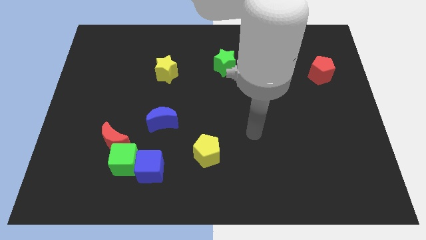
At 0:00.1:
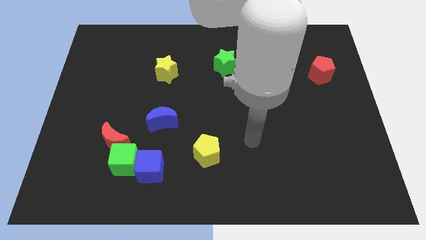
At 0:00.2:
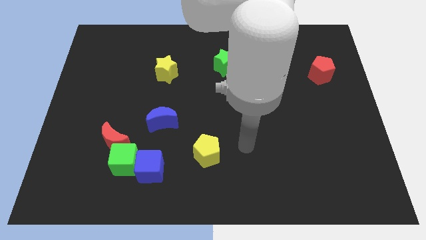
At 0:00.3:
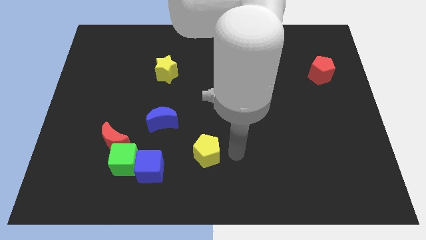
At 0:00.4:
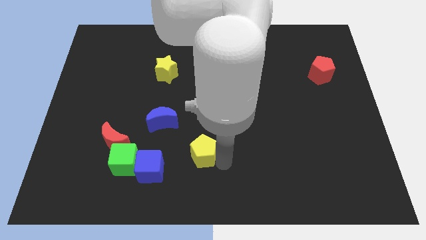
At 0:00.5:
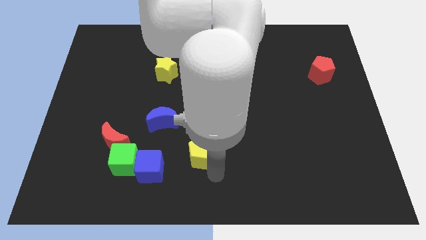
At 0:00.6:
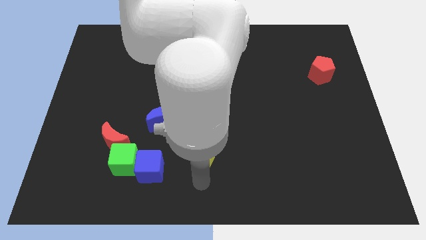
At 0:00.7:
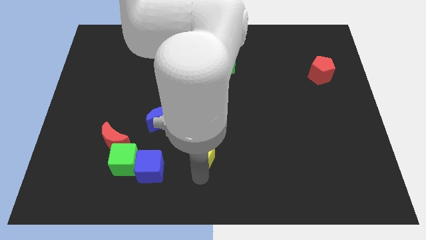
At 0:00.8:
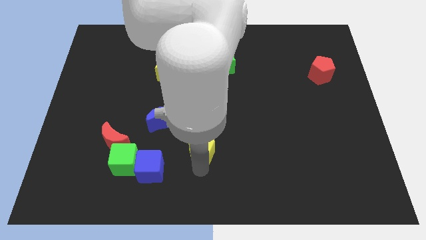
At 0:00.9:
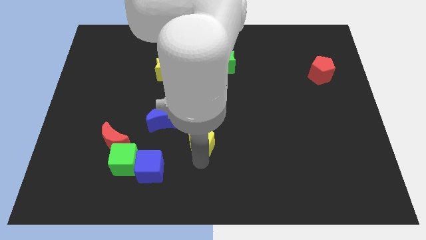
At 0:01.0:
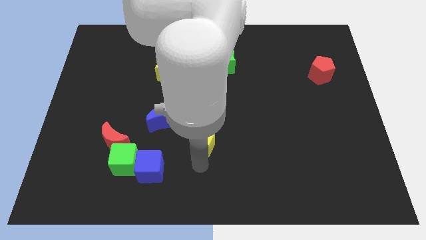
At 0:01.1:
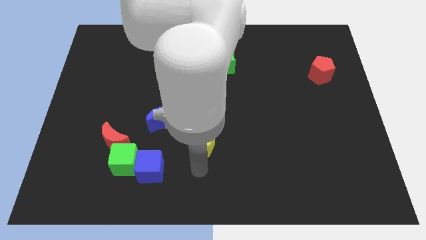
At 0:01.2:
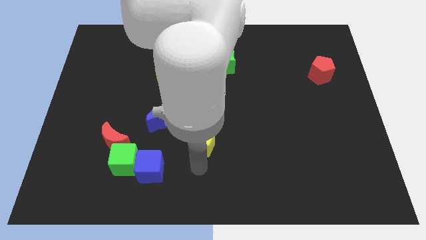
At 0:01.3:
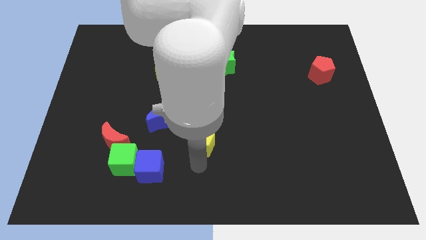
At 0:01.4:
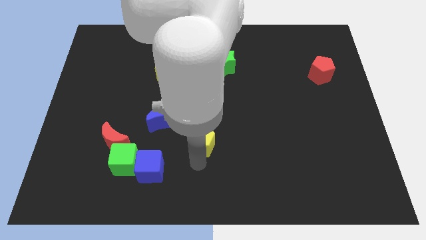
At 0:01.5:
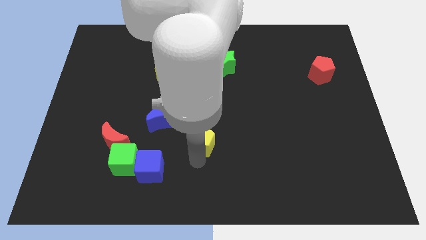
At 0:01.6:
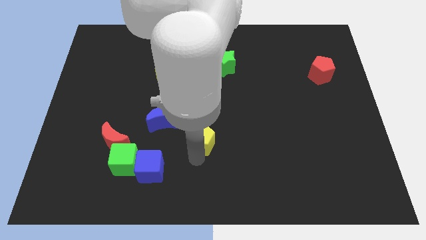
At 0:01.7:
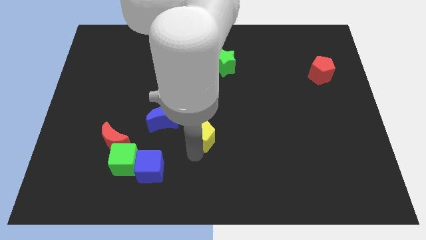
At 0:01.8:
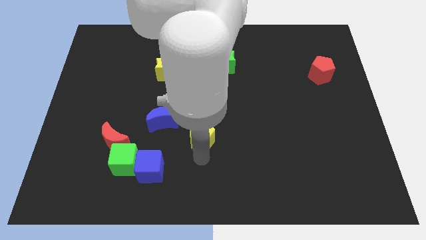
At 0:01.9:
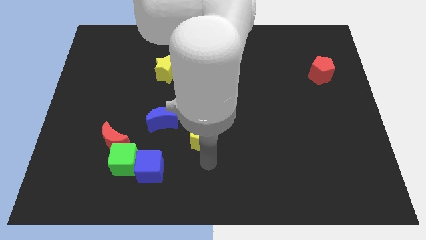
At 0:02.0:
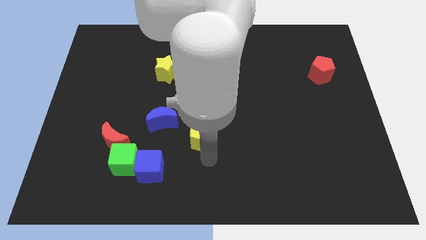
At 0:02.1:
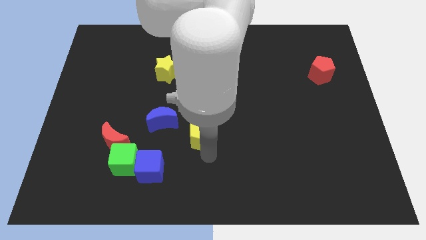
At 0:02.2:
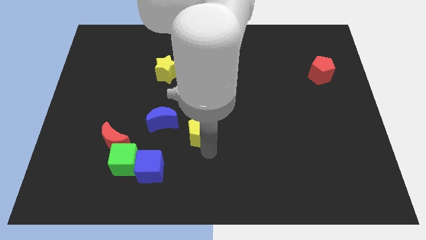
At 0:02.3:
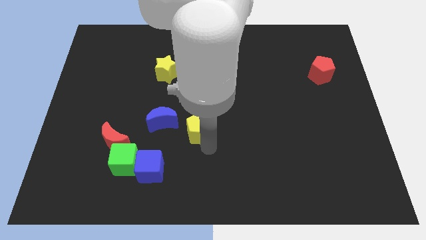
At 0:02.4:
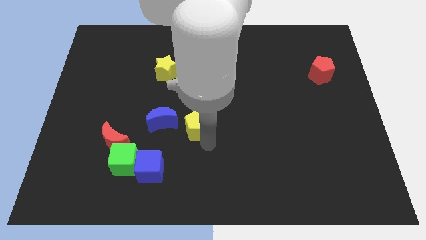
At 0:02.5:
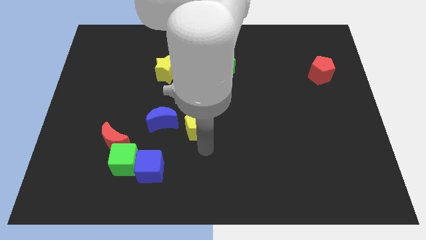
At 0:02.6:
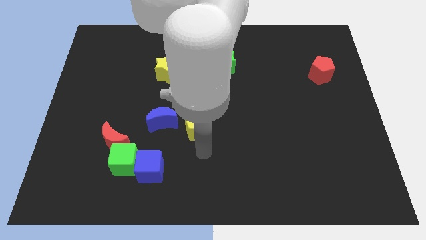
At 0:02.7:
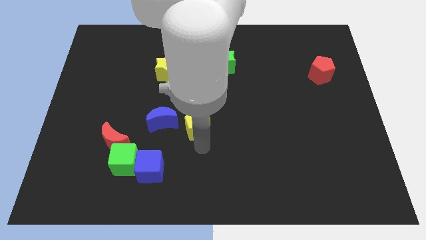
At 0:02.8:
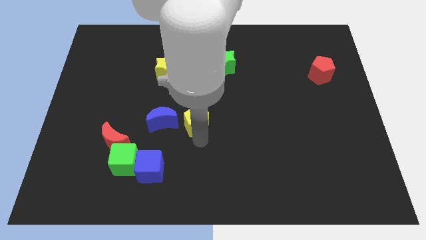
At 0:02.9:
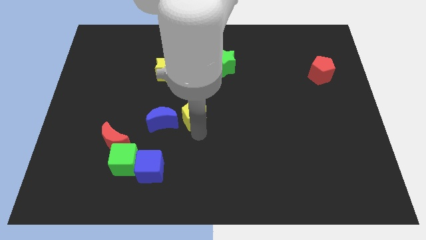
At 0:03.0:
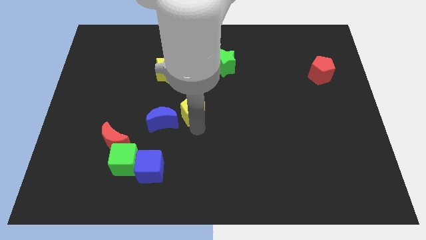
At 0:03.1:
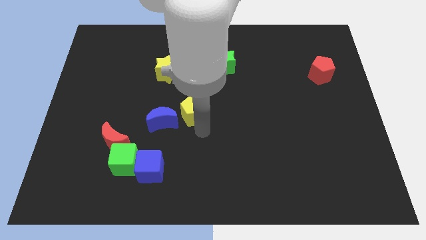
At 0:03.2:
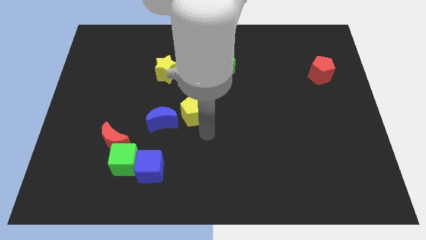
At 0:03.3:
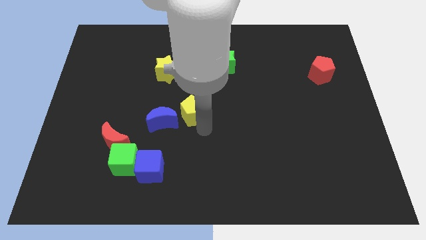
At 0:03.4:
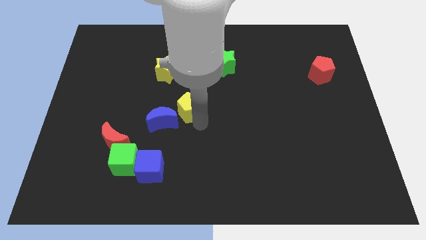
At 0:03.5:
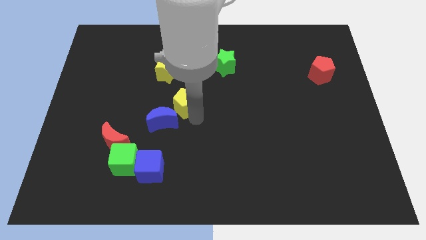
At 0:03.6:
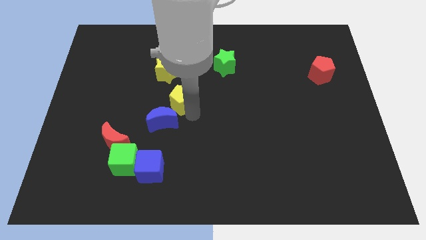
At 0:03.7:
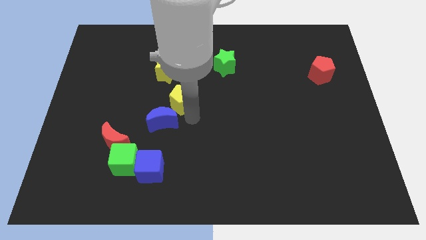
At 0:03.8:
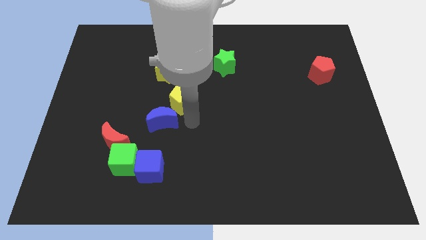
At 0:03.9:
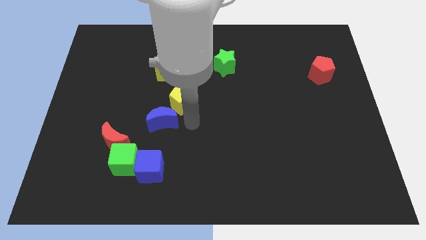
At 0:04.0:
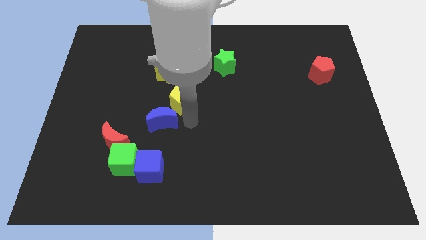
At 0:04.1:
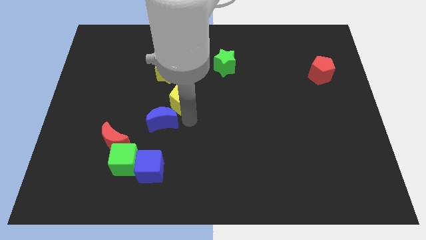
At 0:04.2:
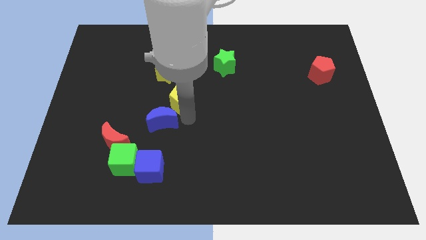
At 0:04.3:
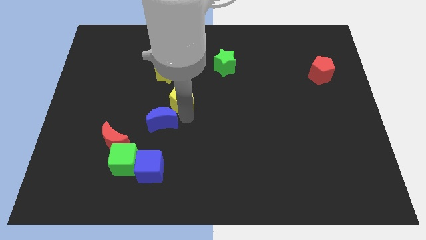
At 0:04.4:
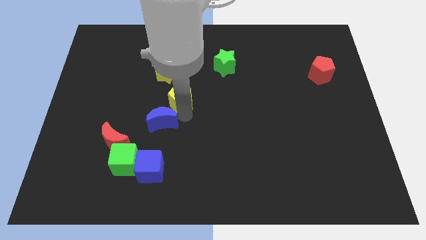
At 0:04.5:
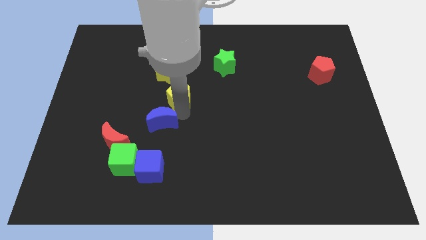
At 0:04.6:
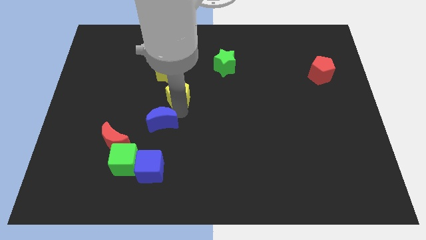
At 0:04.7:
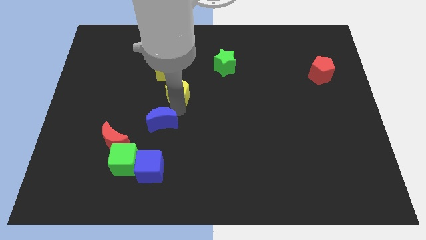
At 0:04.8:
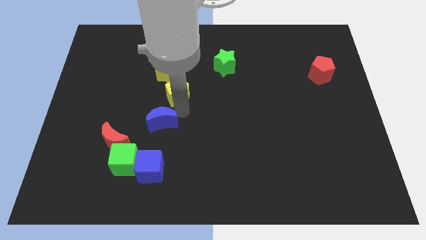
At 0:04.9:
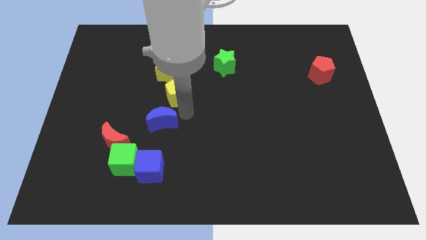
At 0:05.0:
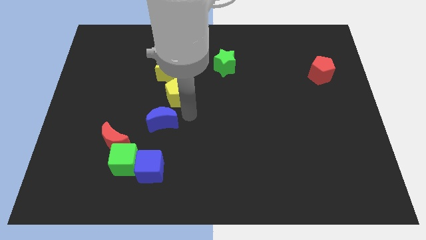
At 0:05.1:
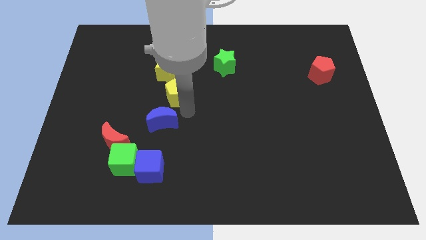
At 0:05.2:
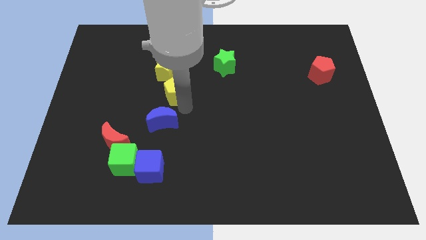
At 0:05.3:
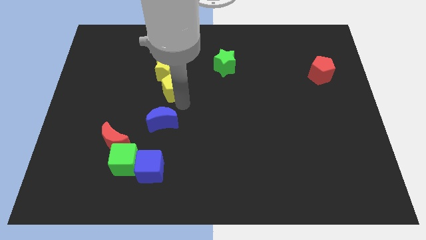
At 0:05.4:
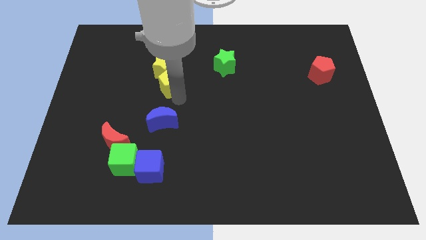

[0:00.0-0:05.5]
put the yellow pentagon towards the yellow star

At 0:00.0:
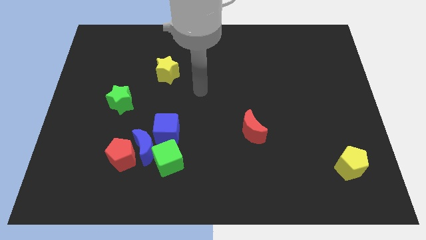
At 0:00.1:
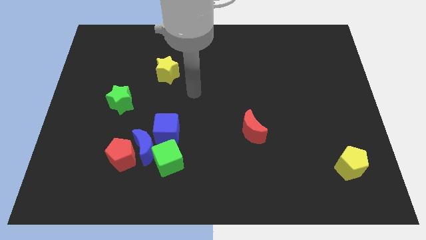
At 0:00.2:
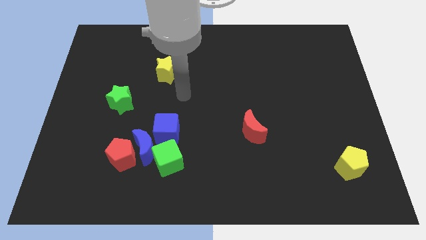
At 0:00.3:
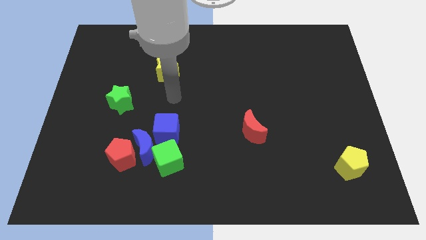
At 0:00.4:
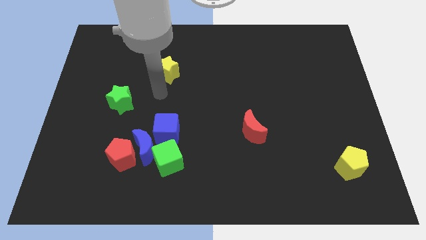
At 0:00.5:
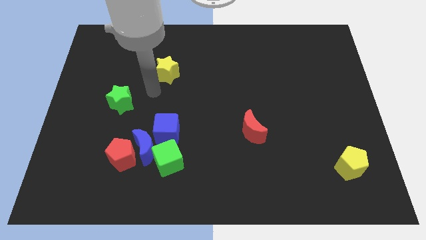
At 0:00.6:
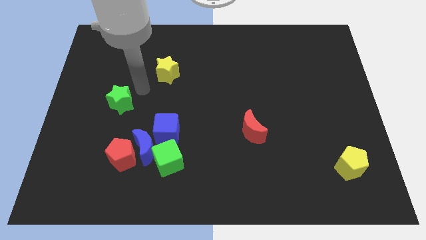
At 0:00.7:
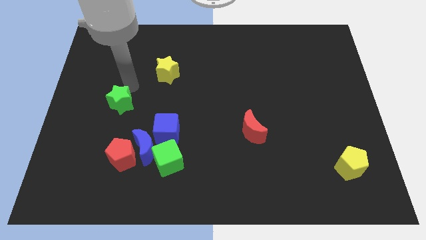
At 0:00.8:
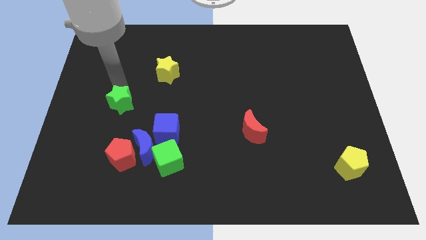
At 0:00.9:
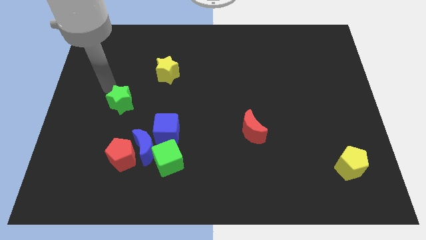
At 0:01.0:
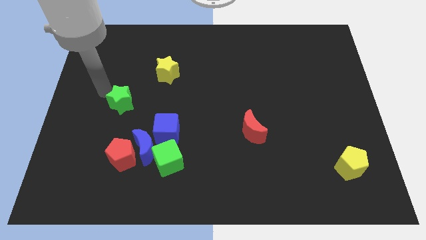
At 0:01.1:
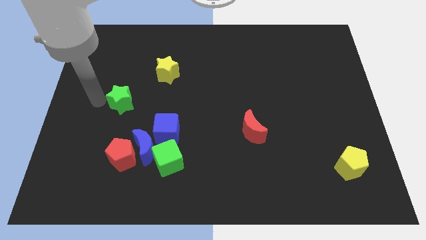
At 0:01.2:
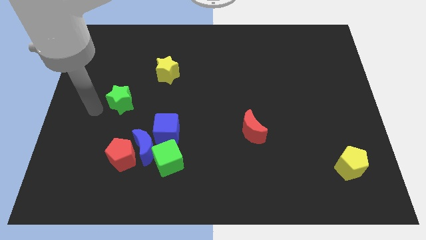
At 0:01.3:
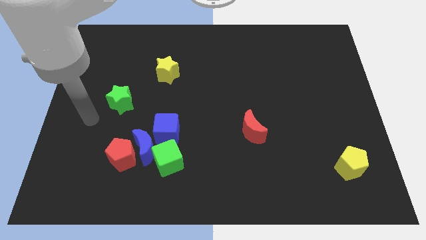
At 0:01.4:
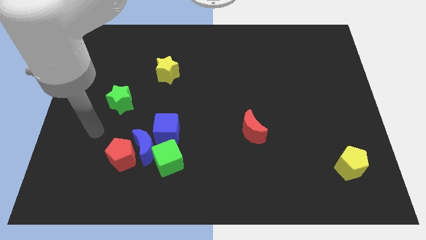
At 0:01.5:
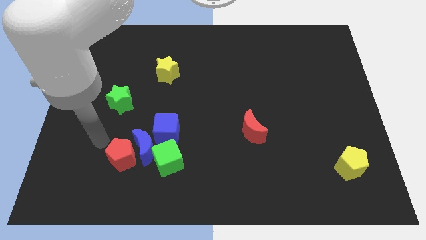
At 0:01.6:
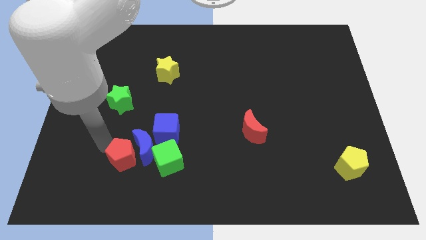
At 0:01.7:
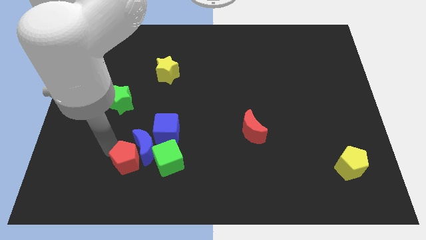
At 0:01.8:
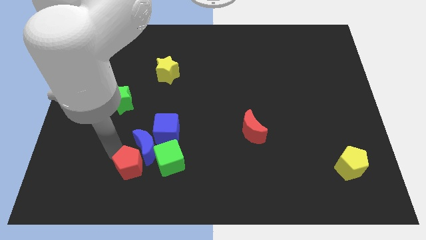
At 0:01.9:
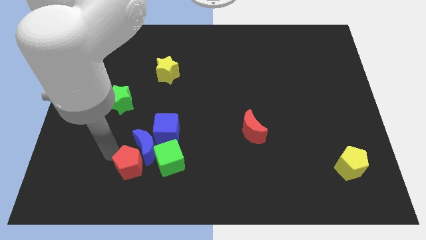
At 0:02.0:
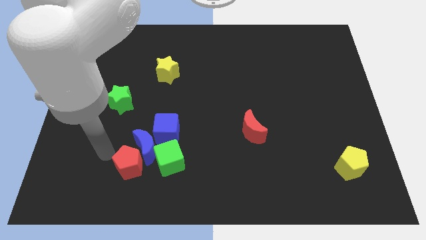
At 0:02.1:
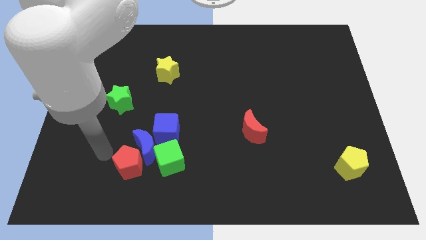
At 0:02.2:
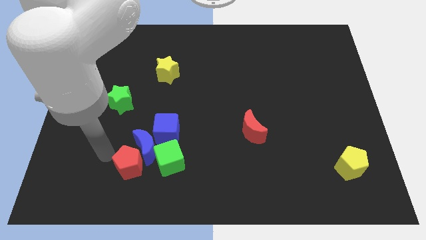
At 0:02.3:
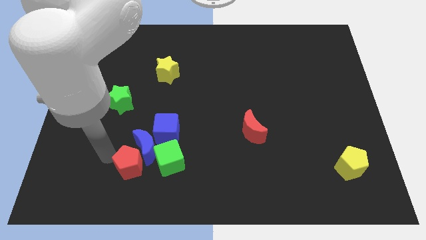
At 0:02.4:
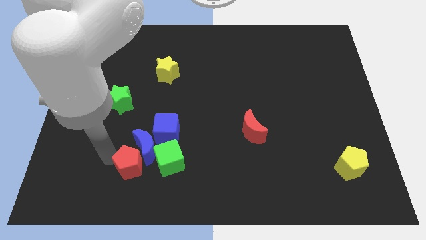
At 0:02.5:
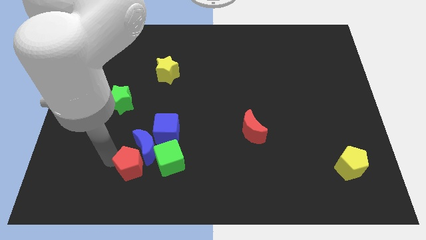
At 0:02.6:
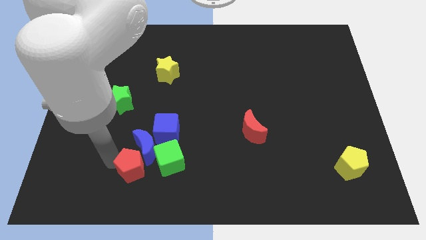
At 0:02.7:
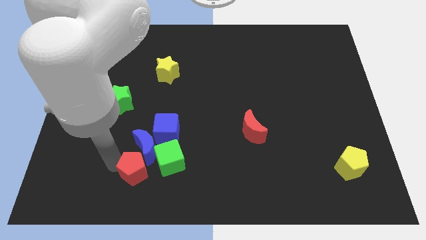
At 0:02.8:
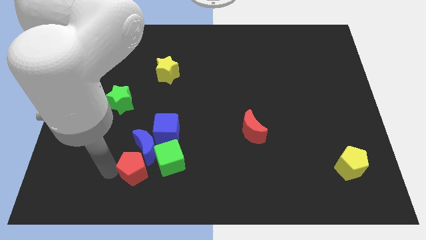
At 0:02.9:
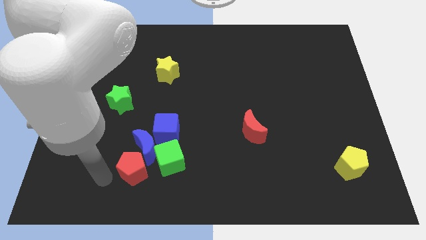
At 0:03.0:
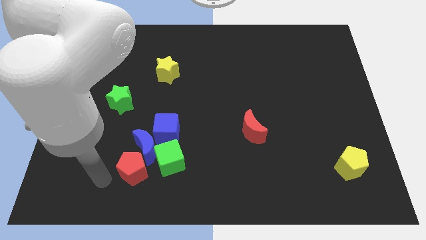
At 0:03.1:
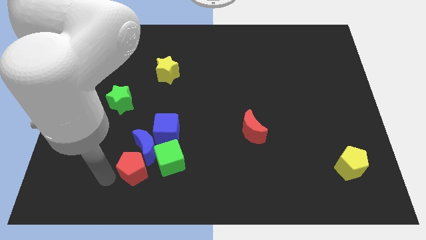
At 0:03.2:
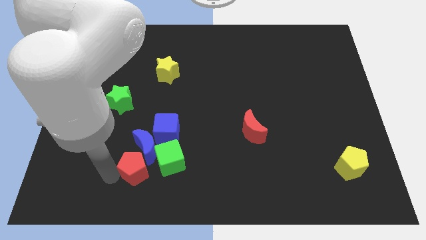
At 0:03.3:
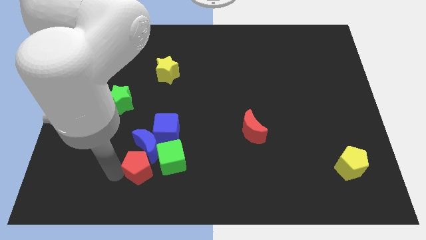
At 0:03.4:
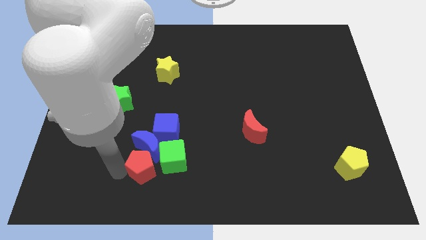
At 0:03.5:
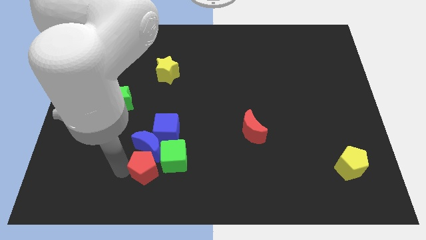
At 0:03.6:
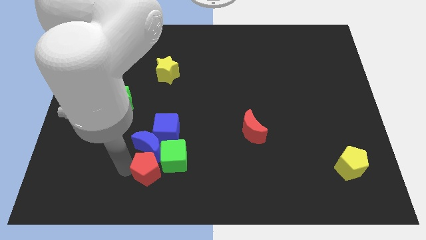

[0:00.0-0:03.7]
move the red pentagon to the green cube
